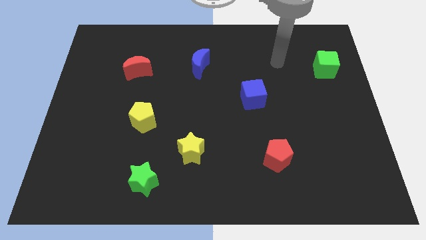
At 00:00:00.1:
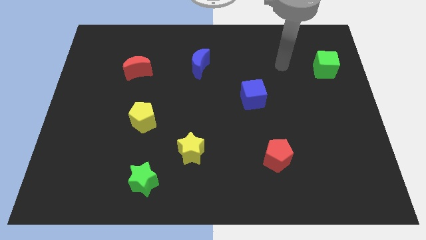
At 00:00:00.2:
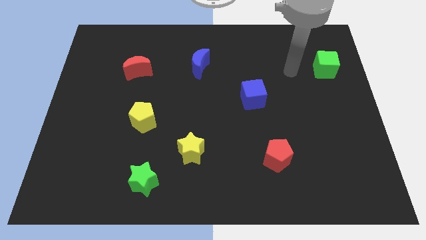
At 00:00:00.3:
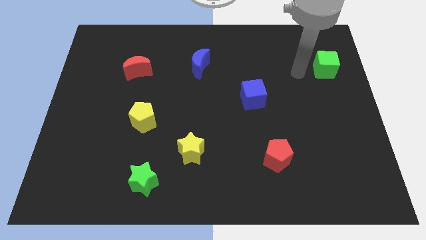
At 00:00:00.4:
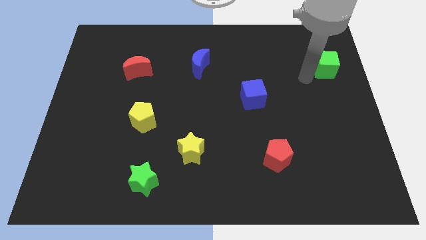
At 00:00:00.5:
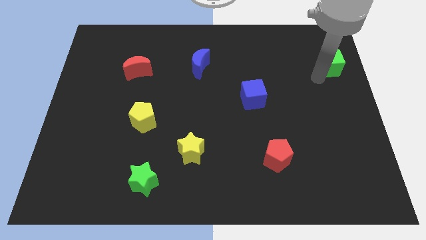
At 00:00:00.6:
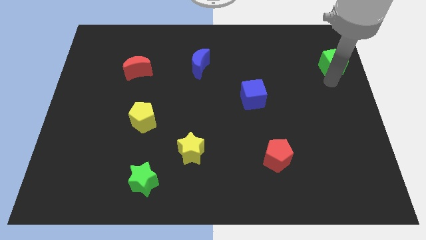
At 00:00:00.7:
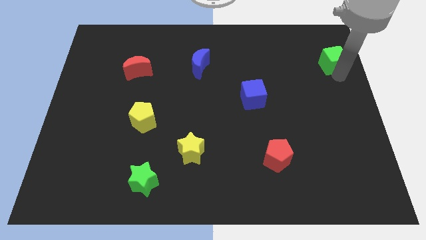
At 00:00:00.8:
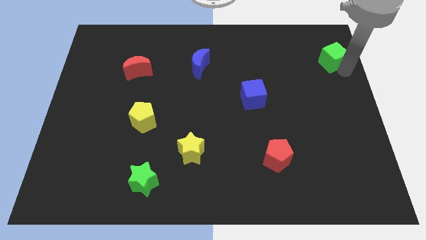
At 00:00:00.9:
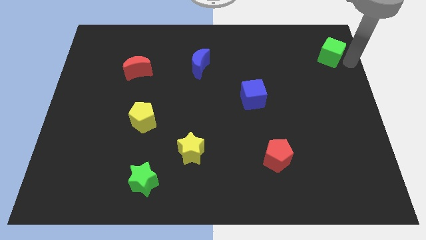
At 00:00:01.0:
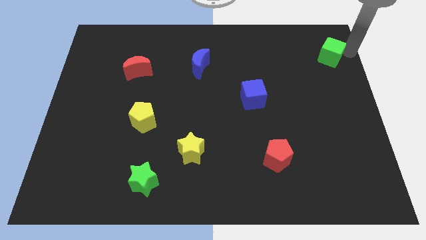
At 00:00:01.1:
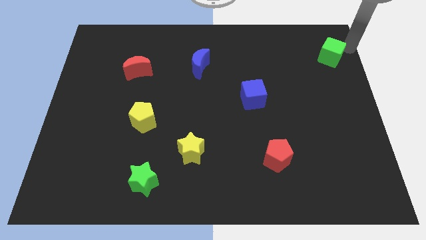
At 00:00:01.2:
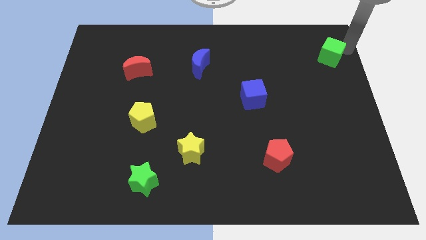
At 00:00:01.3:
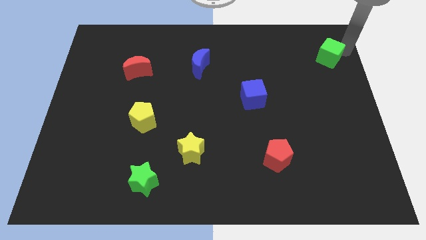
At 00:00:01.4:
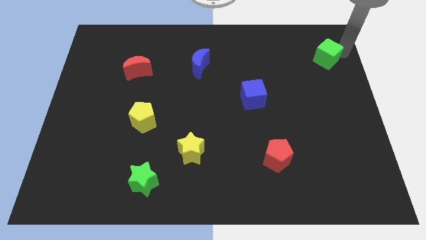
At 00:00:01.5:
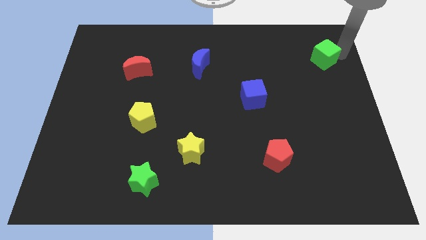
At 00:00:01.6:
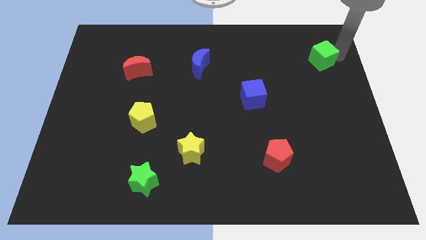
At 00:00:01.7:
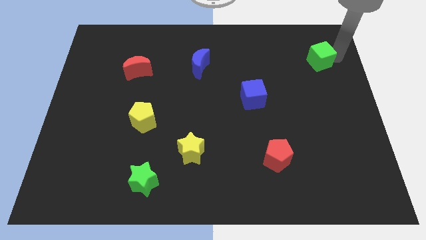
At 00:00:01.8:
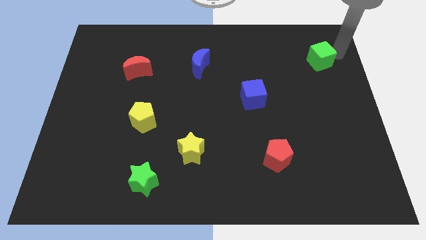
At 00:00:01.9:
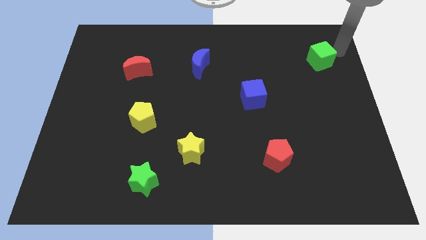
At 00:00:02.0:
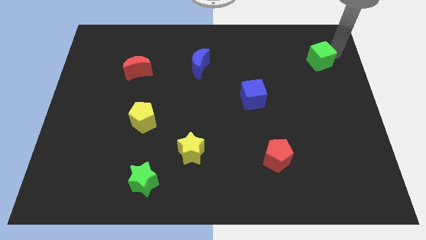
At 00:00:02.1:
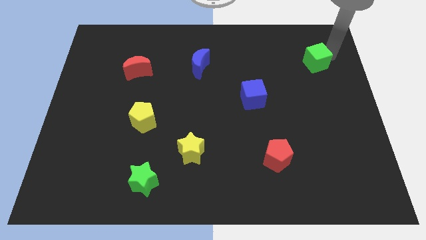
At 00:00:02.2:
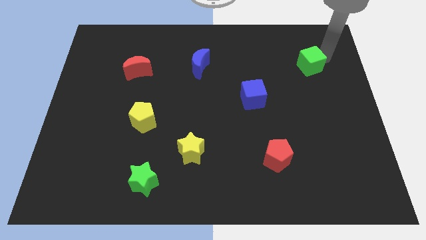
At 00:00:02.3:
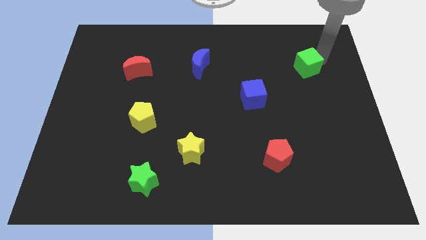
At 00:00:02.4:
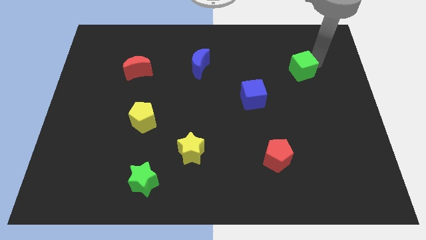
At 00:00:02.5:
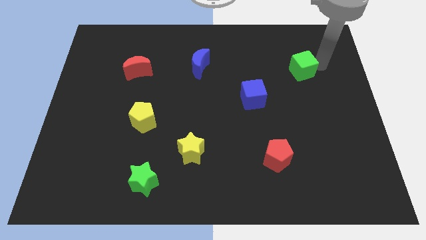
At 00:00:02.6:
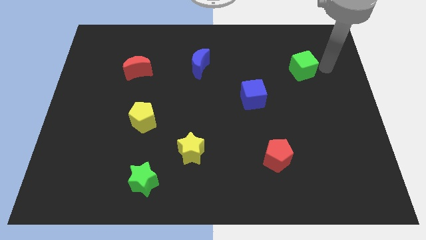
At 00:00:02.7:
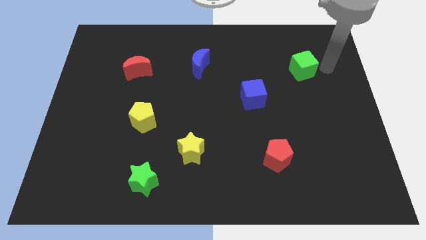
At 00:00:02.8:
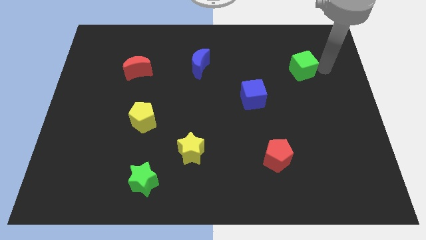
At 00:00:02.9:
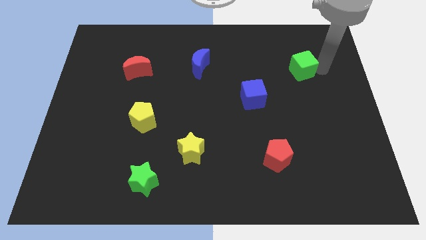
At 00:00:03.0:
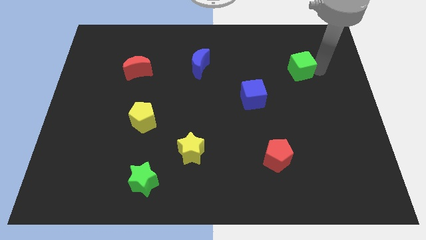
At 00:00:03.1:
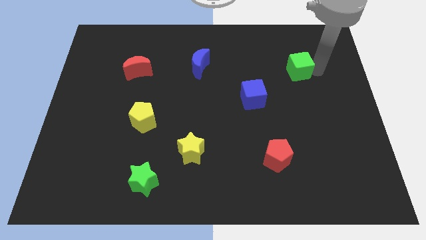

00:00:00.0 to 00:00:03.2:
slightly slide the green cube left

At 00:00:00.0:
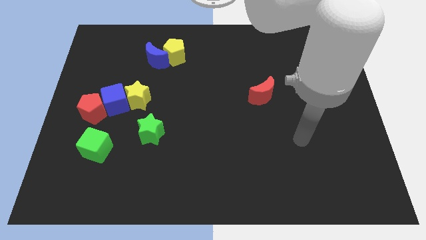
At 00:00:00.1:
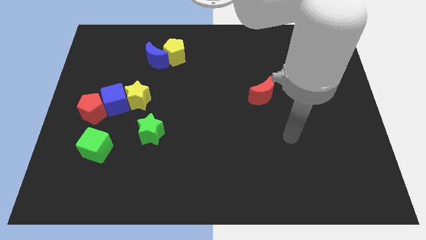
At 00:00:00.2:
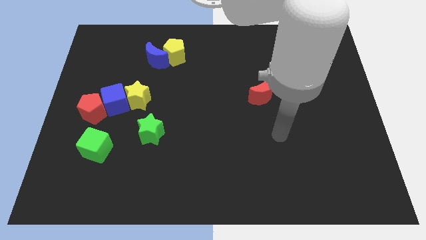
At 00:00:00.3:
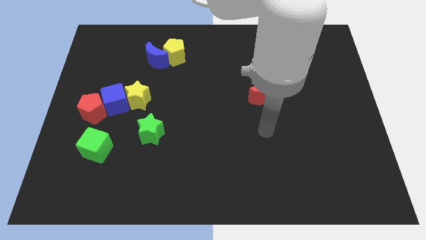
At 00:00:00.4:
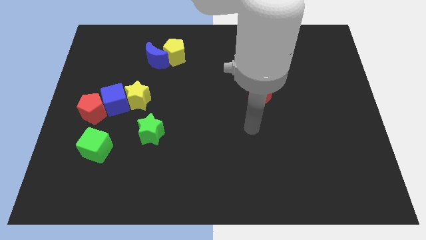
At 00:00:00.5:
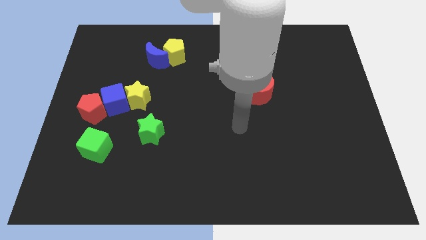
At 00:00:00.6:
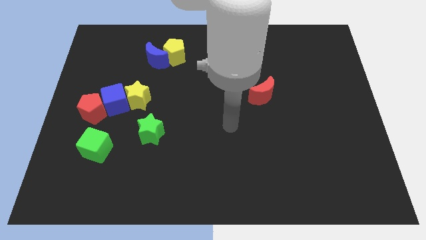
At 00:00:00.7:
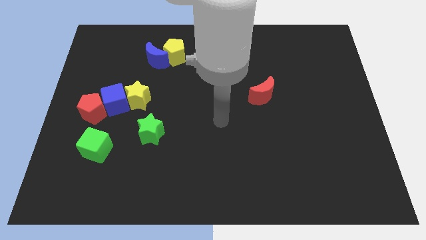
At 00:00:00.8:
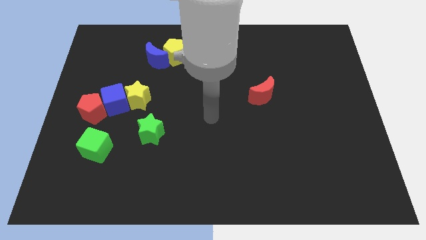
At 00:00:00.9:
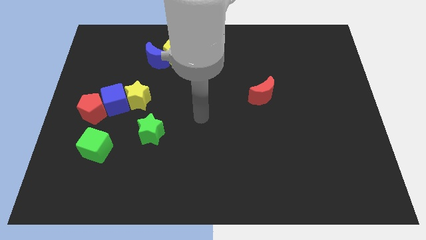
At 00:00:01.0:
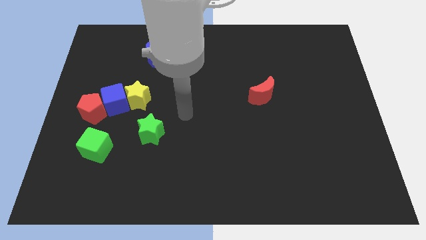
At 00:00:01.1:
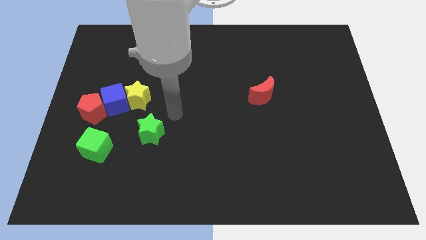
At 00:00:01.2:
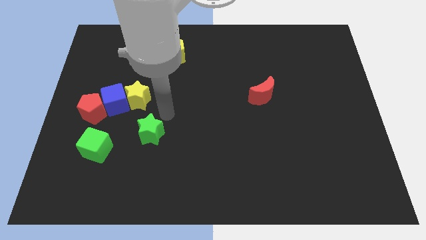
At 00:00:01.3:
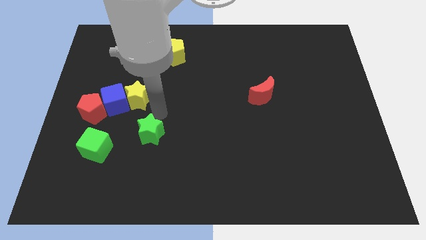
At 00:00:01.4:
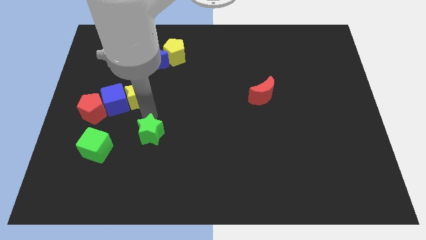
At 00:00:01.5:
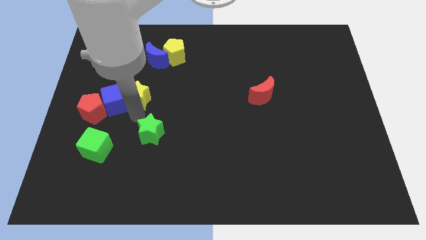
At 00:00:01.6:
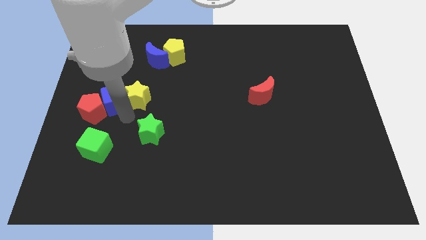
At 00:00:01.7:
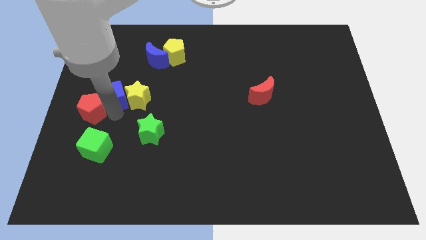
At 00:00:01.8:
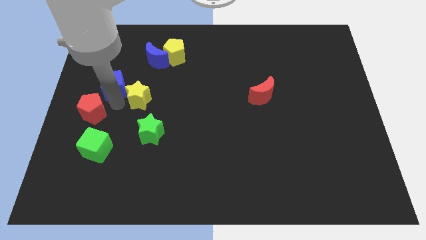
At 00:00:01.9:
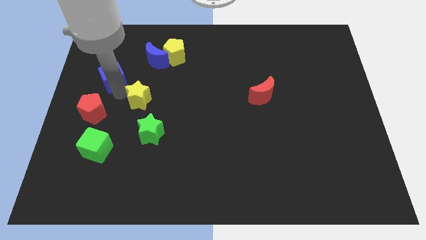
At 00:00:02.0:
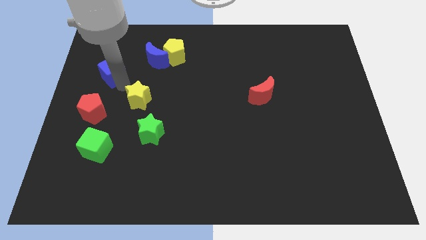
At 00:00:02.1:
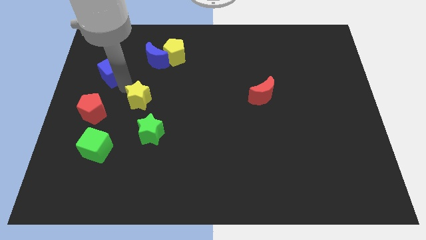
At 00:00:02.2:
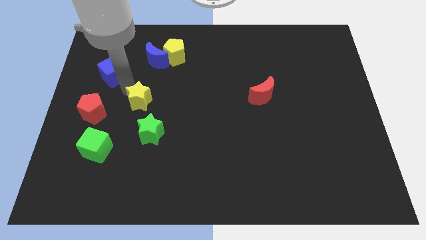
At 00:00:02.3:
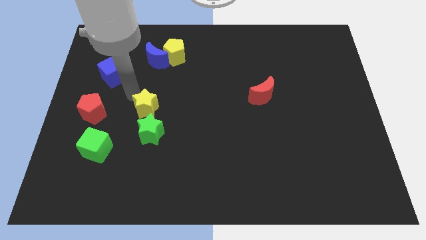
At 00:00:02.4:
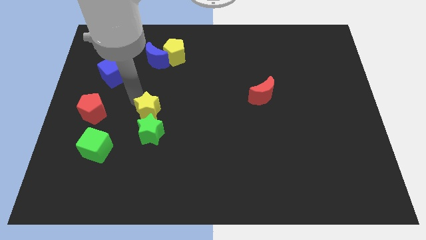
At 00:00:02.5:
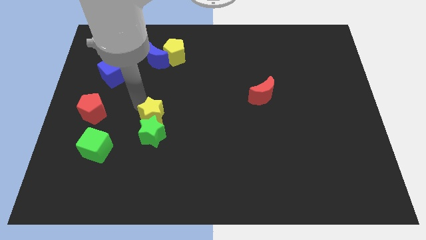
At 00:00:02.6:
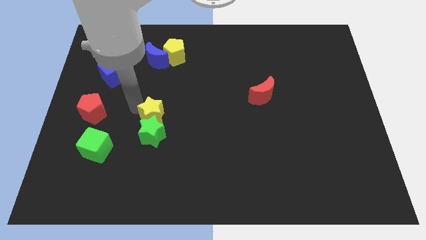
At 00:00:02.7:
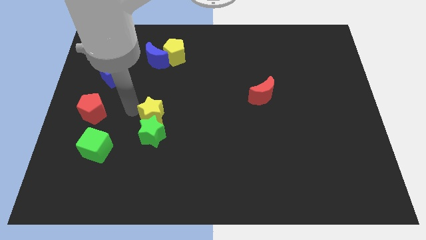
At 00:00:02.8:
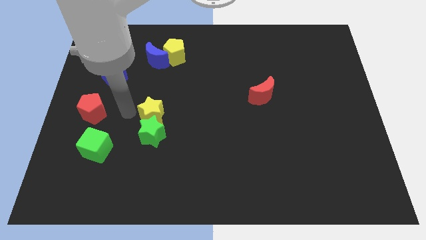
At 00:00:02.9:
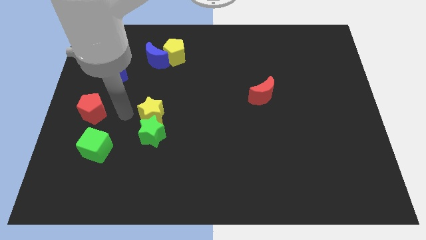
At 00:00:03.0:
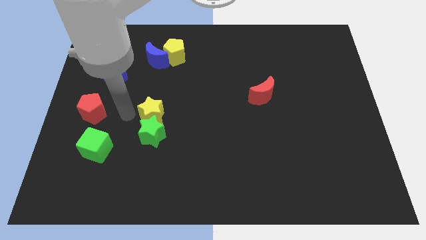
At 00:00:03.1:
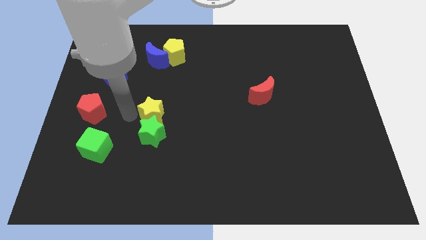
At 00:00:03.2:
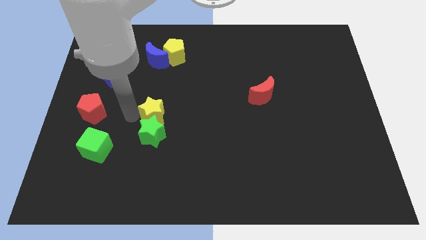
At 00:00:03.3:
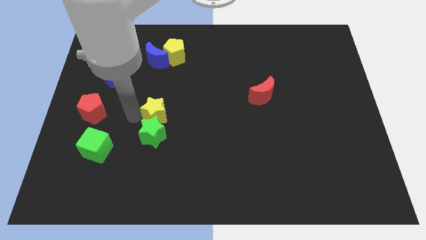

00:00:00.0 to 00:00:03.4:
slightly slide the yellow star downwards and then to the right

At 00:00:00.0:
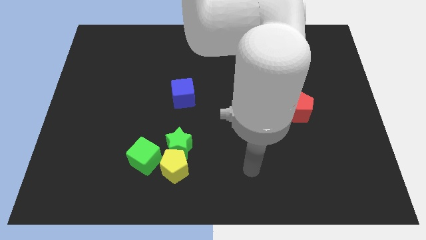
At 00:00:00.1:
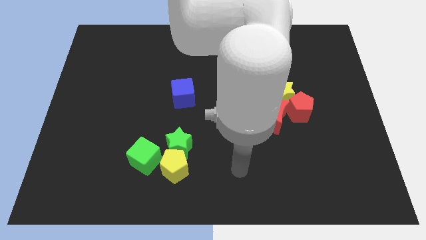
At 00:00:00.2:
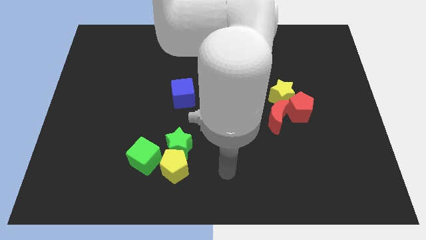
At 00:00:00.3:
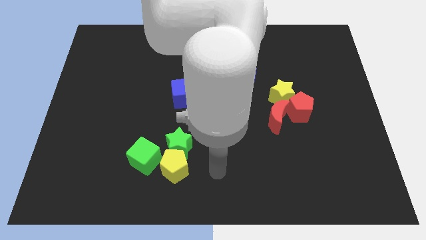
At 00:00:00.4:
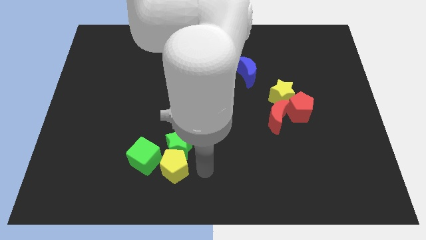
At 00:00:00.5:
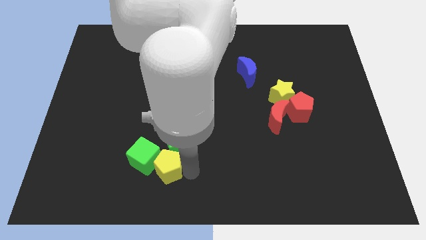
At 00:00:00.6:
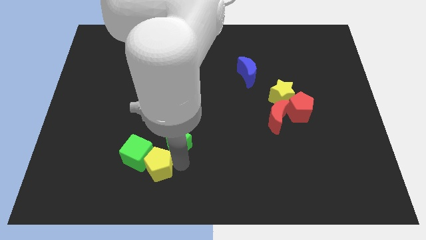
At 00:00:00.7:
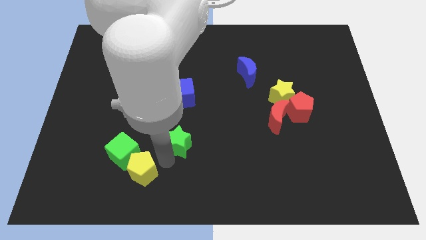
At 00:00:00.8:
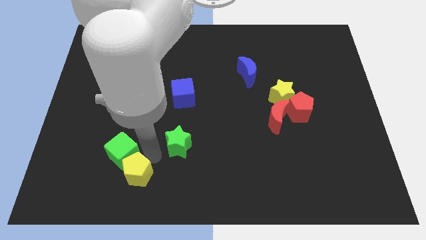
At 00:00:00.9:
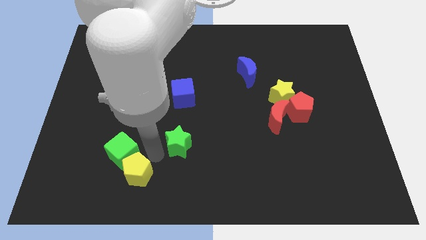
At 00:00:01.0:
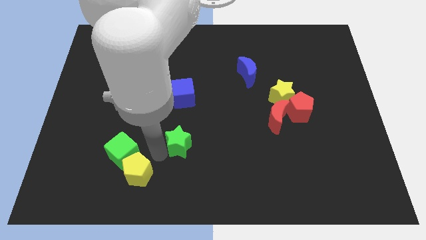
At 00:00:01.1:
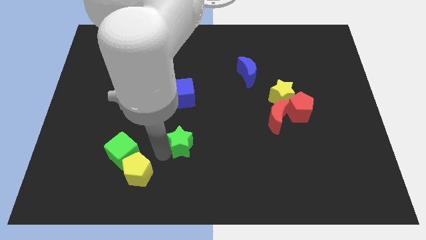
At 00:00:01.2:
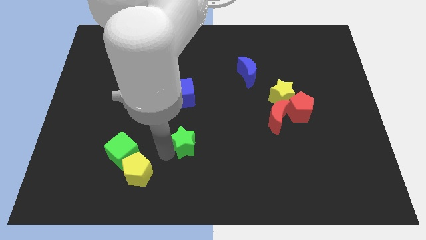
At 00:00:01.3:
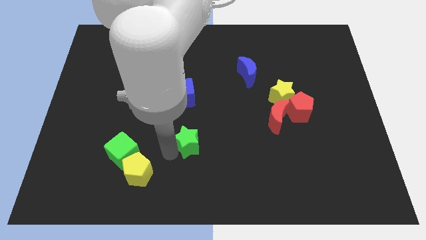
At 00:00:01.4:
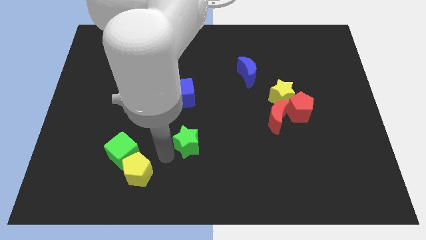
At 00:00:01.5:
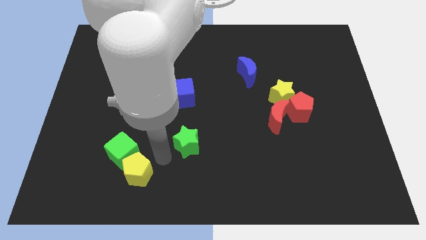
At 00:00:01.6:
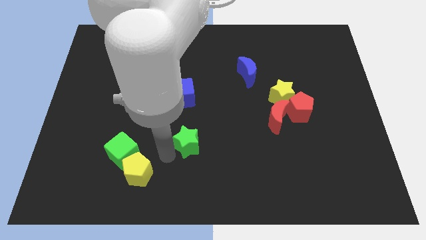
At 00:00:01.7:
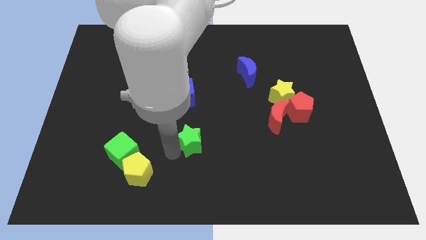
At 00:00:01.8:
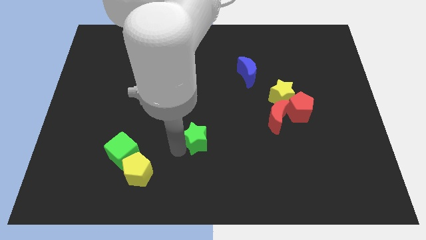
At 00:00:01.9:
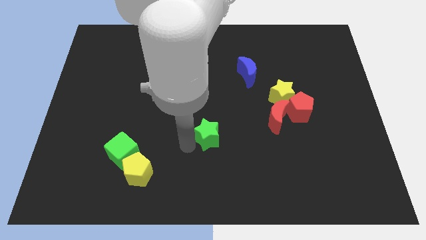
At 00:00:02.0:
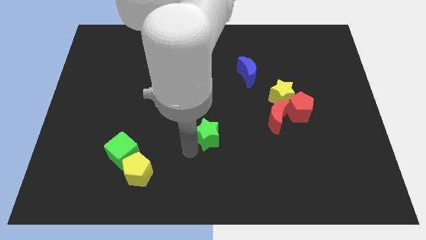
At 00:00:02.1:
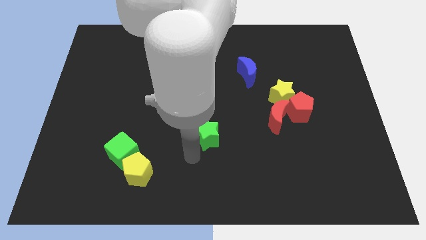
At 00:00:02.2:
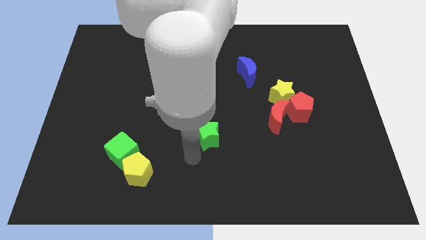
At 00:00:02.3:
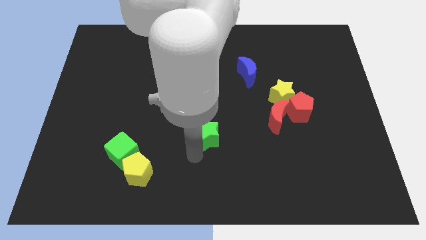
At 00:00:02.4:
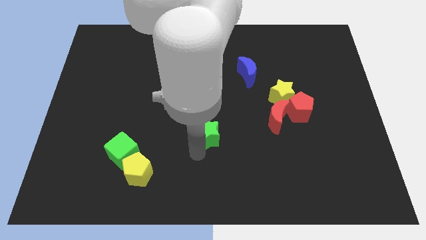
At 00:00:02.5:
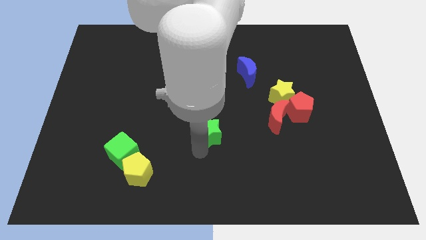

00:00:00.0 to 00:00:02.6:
slide the green star diagonally up and to the right somewhat
